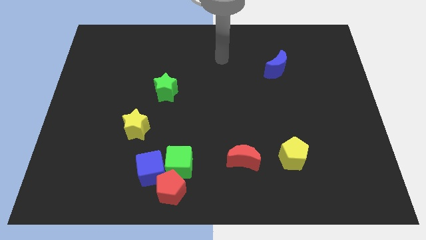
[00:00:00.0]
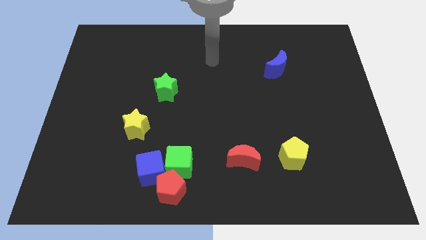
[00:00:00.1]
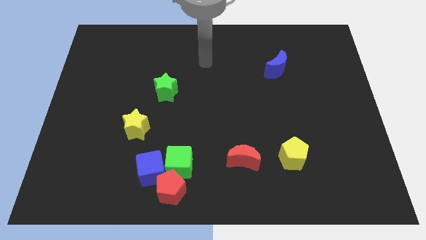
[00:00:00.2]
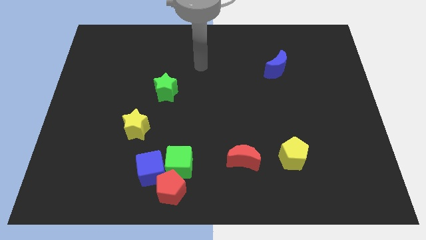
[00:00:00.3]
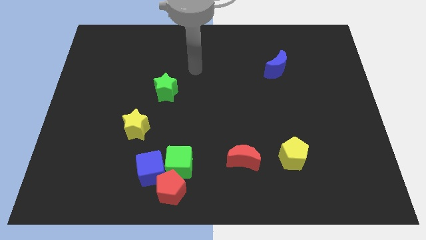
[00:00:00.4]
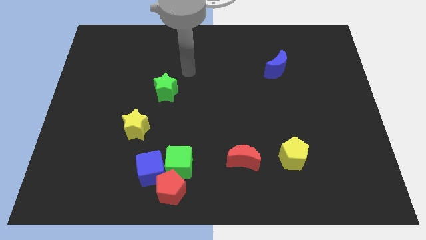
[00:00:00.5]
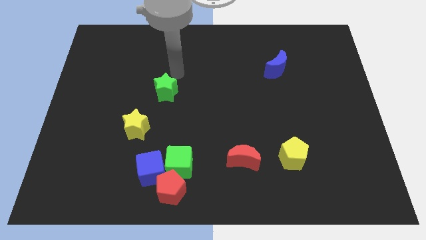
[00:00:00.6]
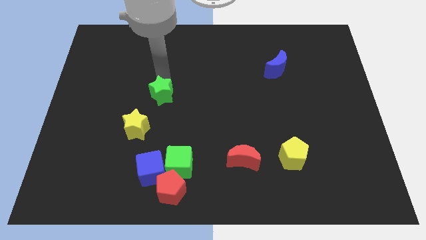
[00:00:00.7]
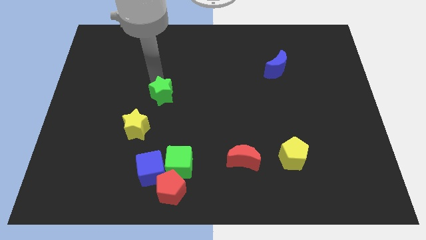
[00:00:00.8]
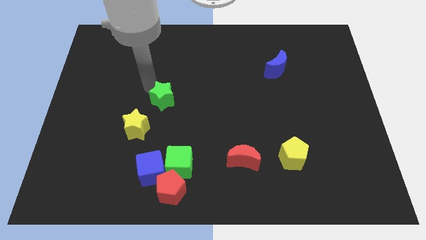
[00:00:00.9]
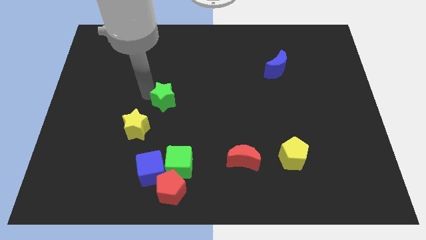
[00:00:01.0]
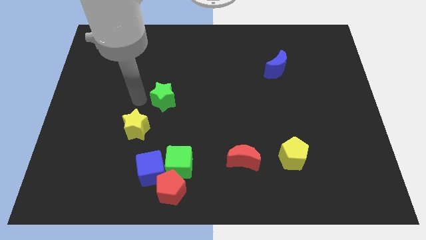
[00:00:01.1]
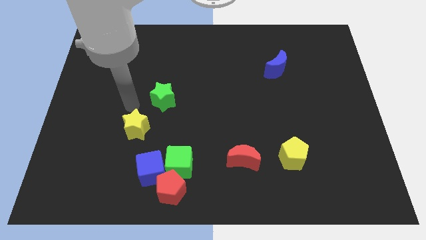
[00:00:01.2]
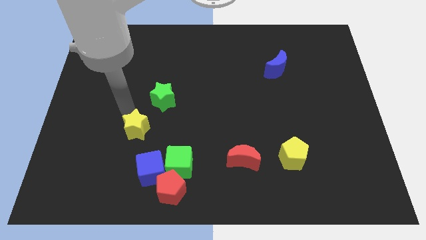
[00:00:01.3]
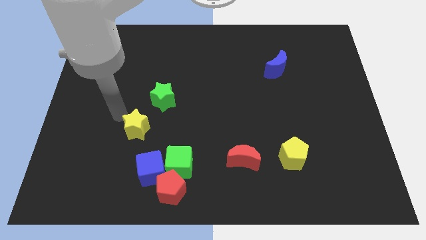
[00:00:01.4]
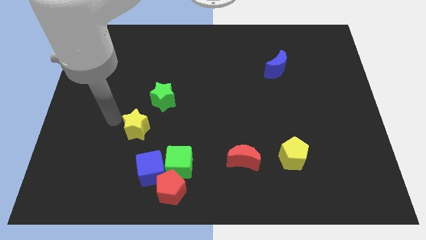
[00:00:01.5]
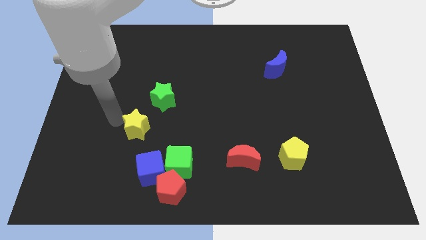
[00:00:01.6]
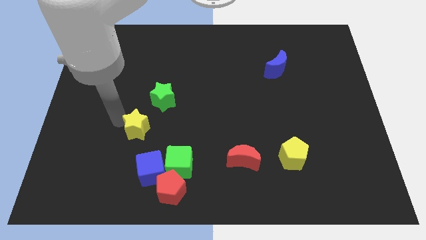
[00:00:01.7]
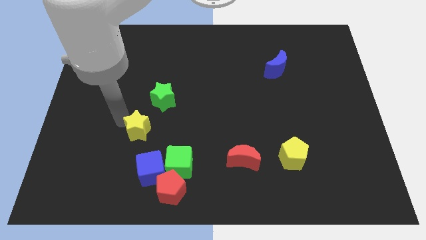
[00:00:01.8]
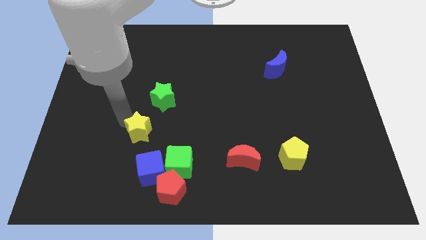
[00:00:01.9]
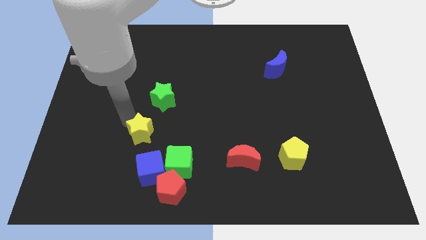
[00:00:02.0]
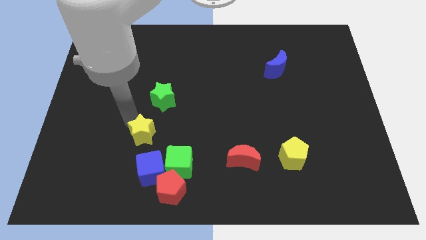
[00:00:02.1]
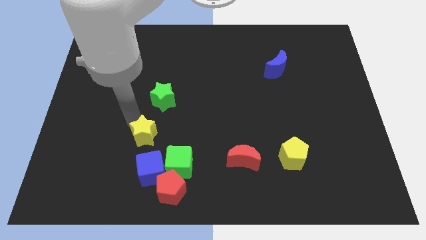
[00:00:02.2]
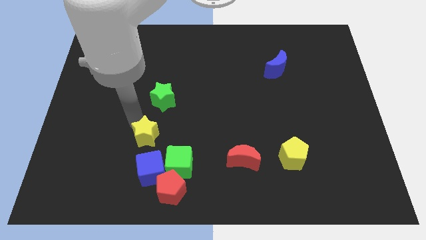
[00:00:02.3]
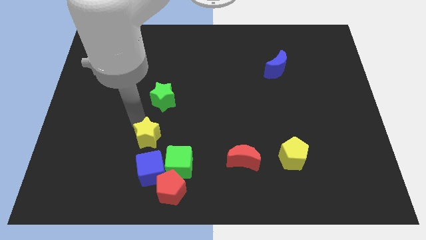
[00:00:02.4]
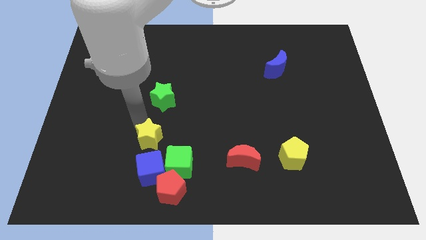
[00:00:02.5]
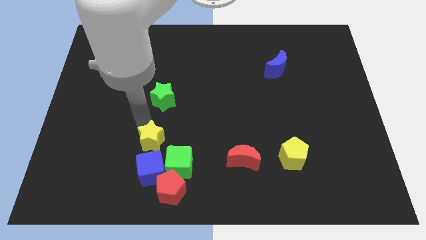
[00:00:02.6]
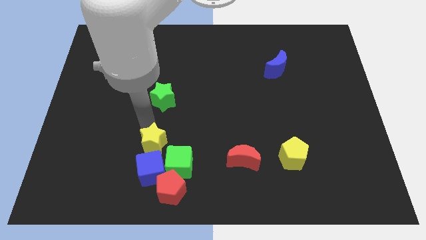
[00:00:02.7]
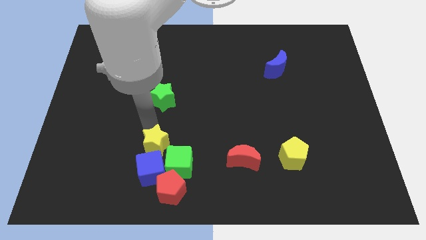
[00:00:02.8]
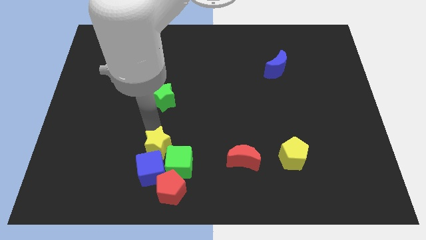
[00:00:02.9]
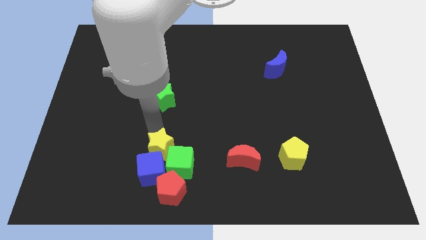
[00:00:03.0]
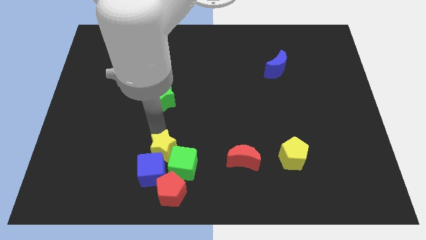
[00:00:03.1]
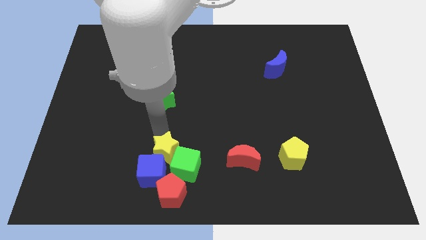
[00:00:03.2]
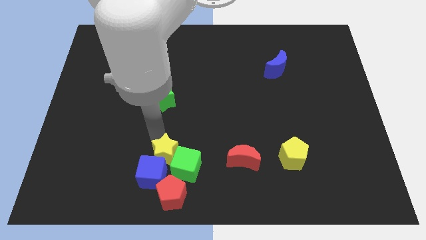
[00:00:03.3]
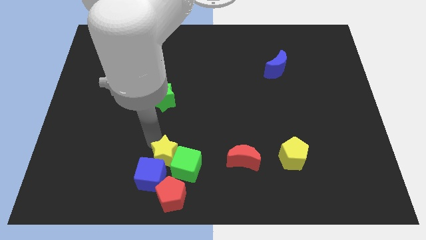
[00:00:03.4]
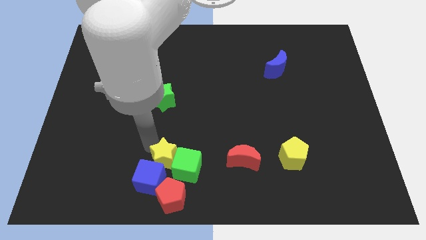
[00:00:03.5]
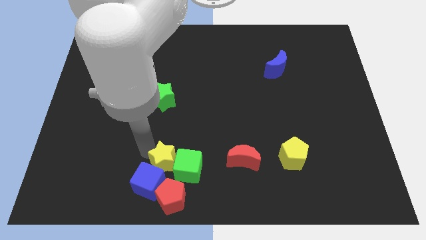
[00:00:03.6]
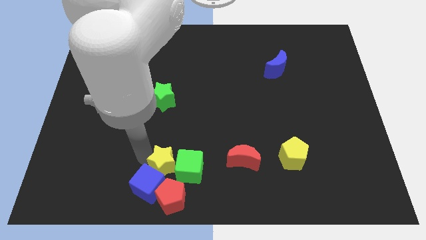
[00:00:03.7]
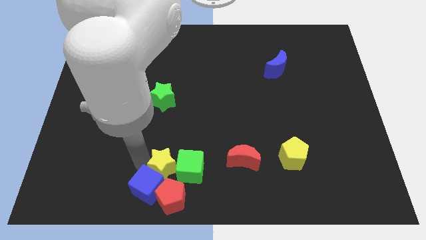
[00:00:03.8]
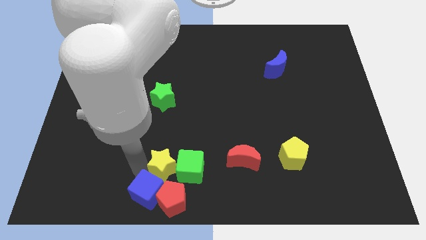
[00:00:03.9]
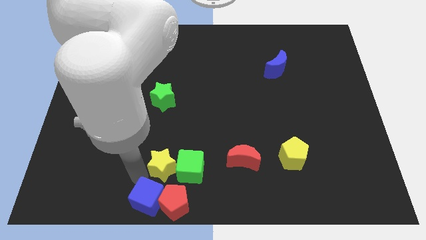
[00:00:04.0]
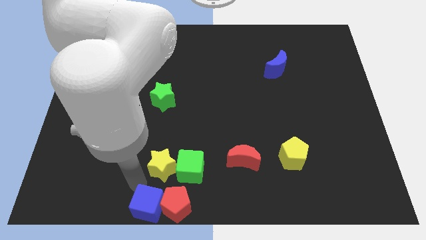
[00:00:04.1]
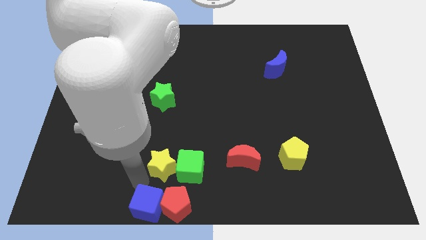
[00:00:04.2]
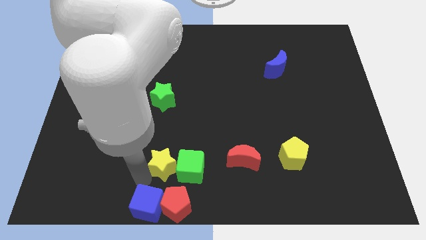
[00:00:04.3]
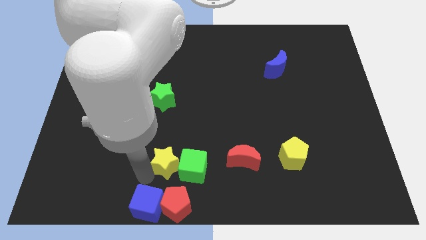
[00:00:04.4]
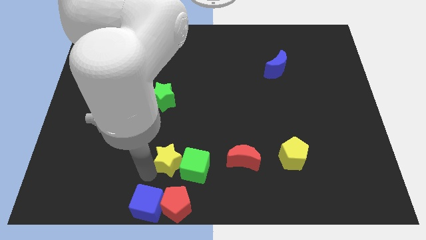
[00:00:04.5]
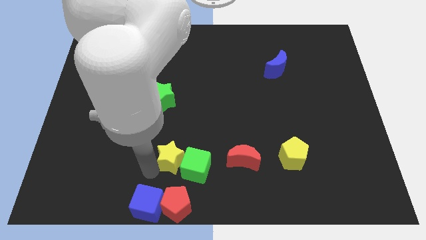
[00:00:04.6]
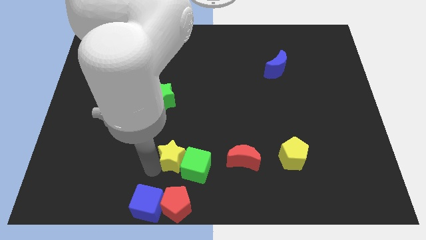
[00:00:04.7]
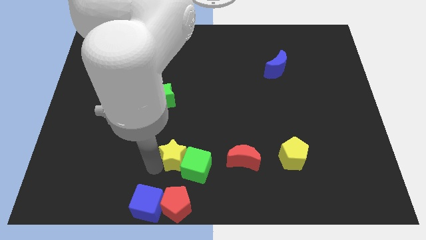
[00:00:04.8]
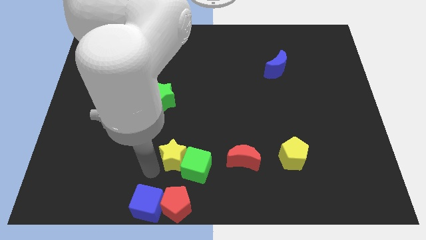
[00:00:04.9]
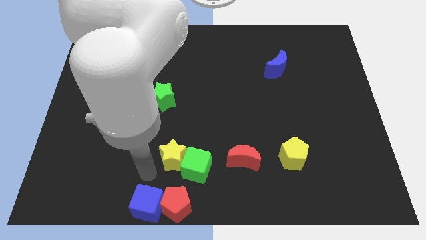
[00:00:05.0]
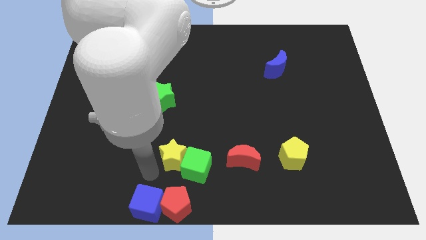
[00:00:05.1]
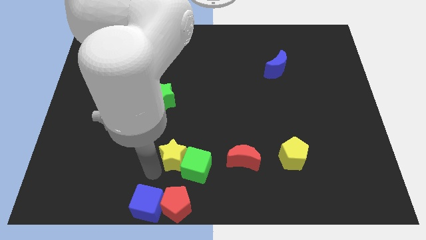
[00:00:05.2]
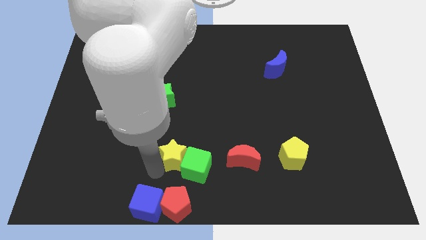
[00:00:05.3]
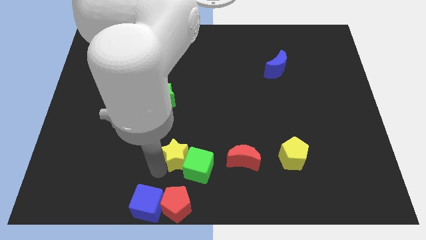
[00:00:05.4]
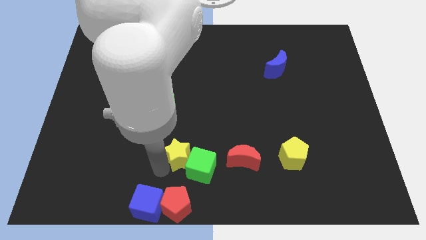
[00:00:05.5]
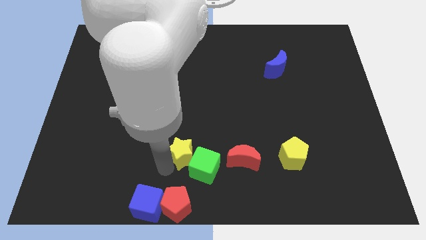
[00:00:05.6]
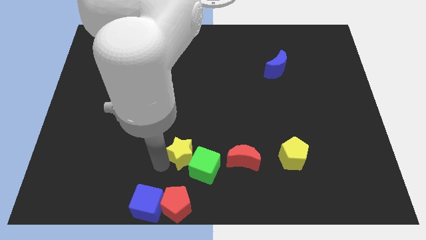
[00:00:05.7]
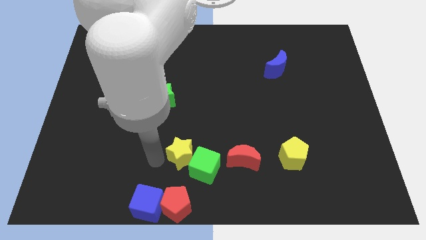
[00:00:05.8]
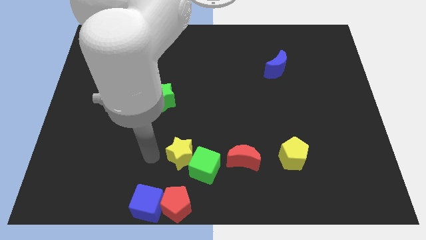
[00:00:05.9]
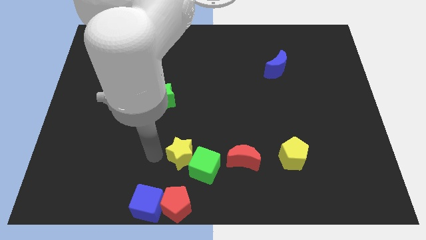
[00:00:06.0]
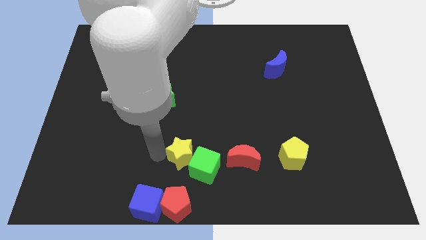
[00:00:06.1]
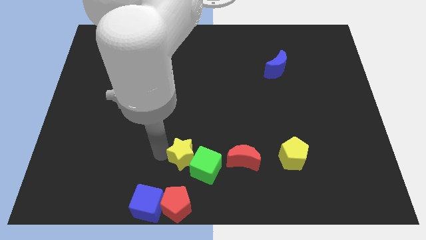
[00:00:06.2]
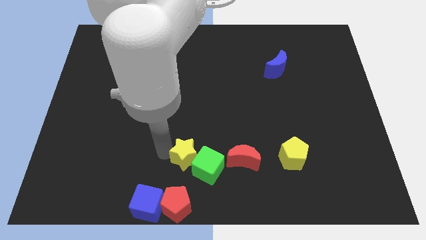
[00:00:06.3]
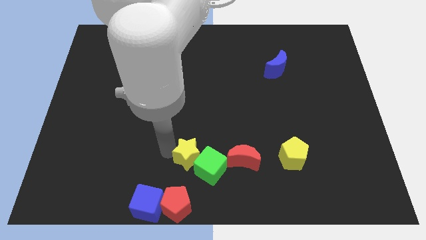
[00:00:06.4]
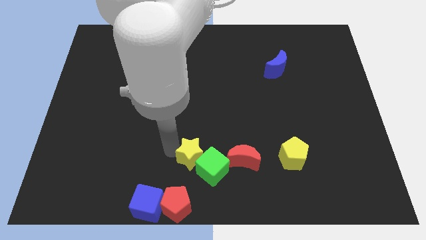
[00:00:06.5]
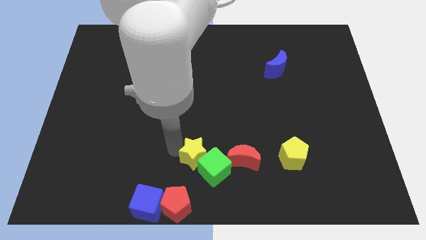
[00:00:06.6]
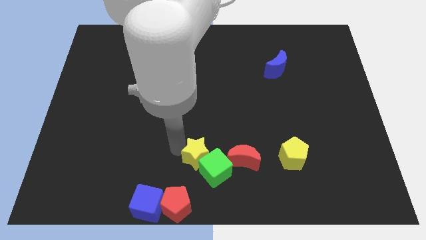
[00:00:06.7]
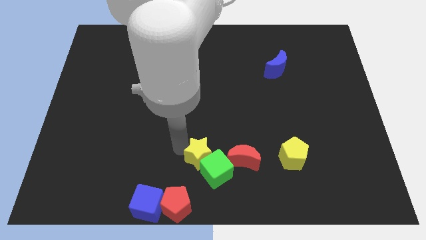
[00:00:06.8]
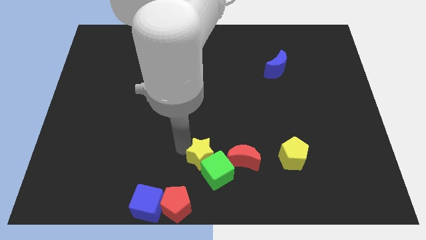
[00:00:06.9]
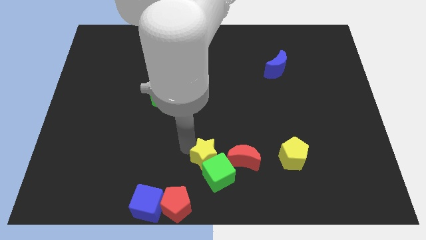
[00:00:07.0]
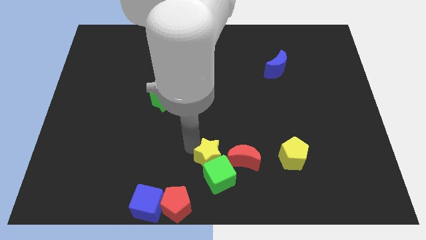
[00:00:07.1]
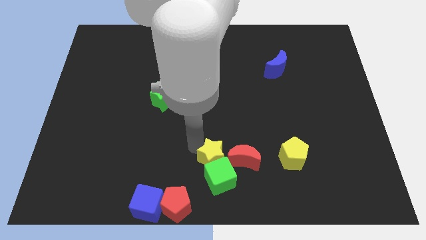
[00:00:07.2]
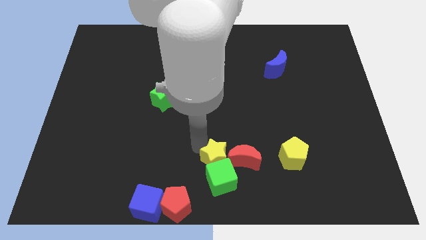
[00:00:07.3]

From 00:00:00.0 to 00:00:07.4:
push the yellow star next to the red moon
